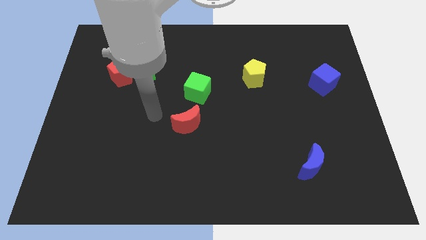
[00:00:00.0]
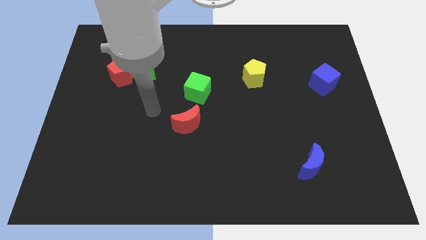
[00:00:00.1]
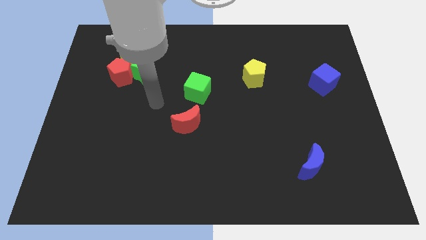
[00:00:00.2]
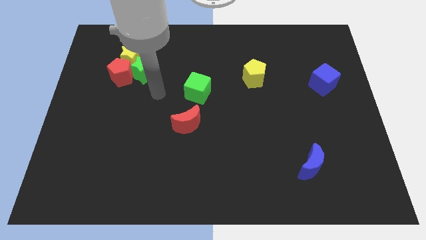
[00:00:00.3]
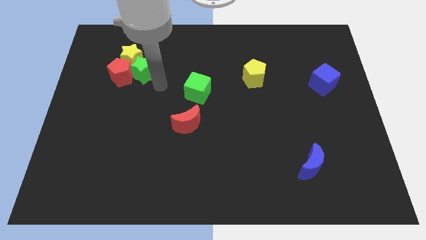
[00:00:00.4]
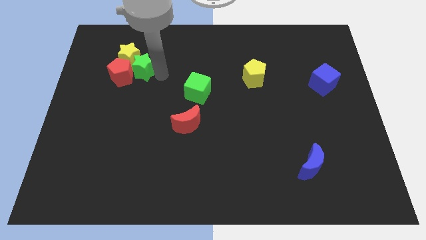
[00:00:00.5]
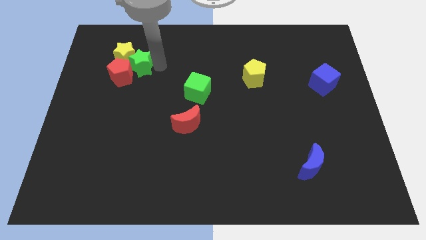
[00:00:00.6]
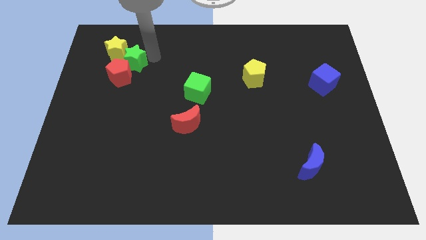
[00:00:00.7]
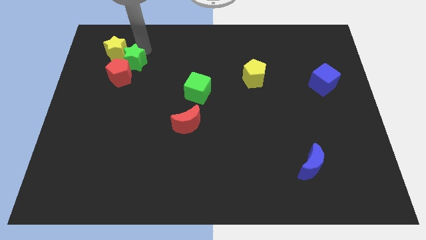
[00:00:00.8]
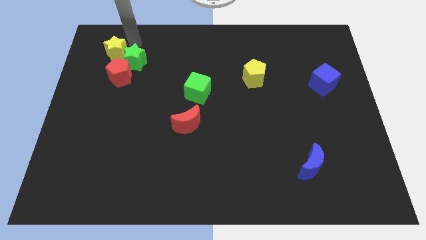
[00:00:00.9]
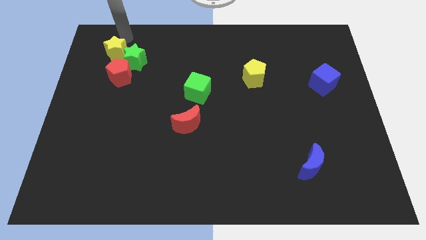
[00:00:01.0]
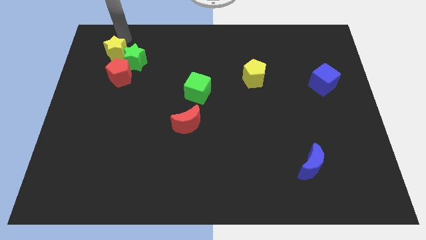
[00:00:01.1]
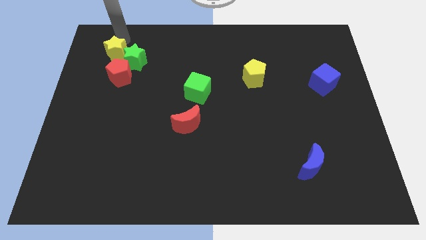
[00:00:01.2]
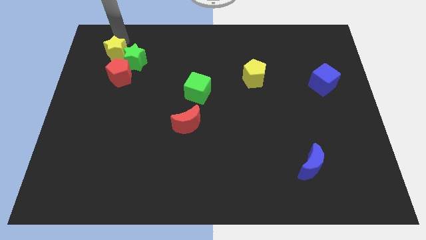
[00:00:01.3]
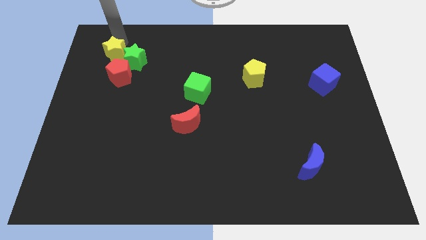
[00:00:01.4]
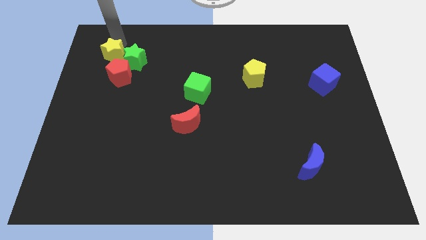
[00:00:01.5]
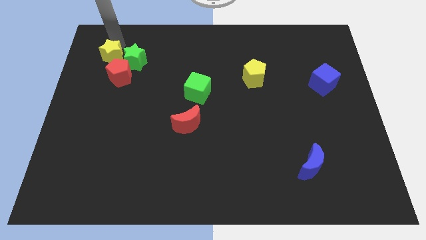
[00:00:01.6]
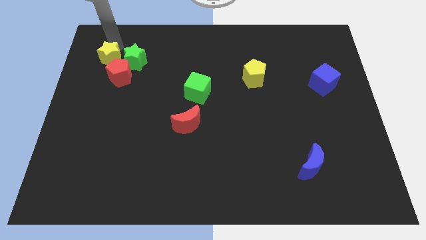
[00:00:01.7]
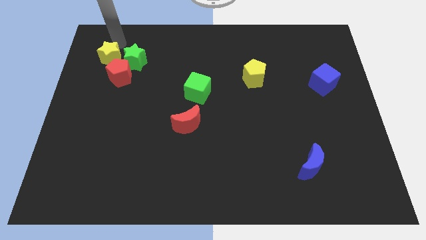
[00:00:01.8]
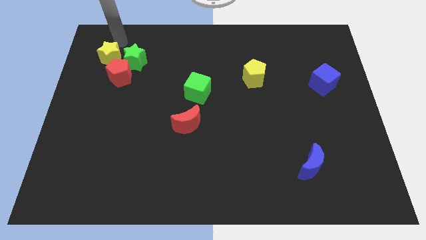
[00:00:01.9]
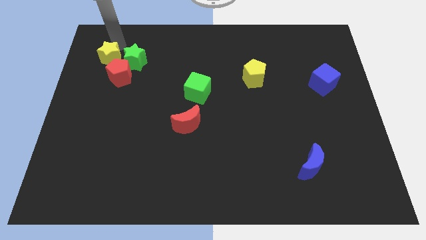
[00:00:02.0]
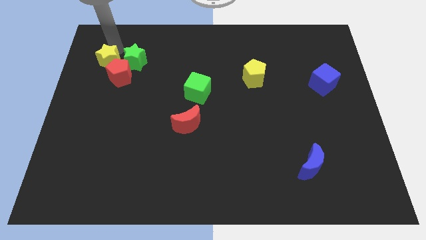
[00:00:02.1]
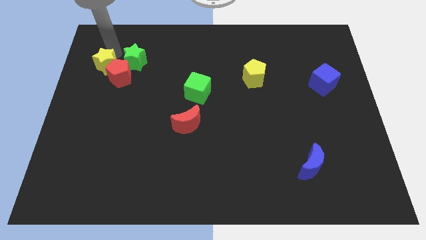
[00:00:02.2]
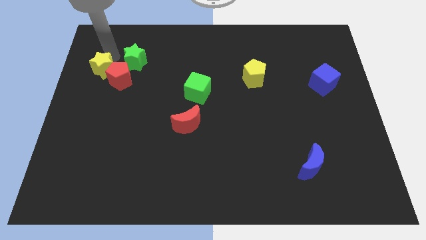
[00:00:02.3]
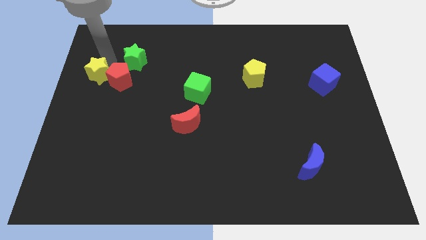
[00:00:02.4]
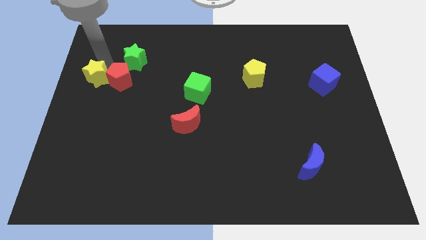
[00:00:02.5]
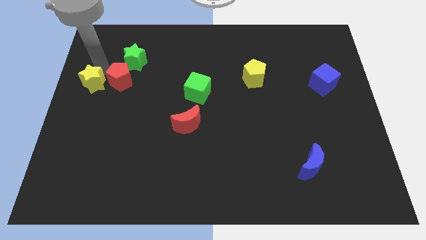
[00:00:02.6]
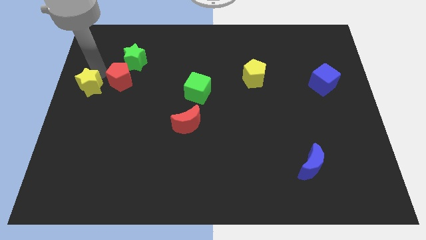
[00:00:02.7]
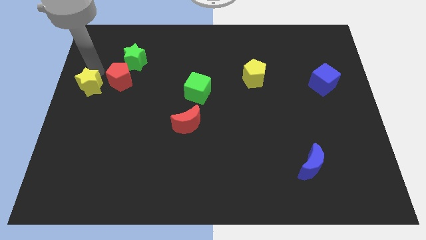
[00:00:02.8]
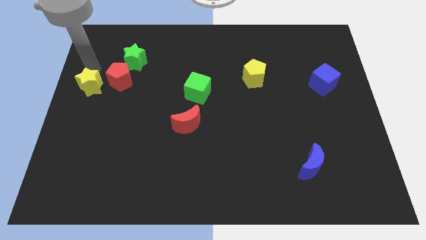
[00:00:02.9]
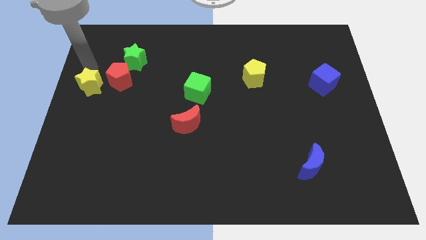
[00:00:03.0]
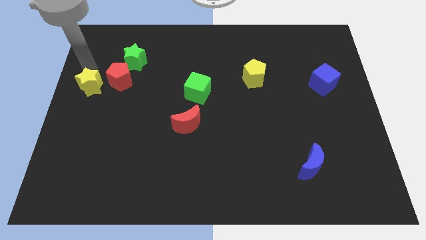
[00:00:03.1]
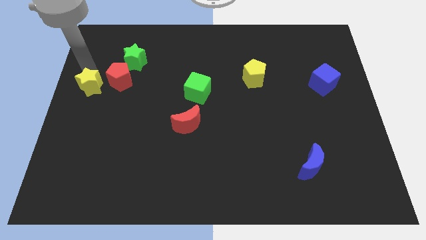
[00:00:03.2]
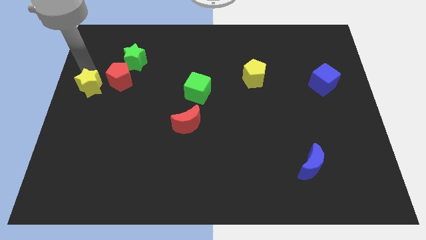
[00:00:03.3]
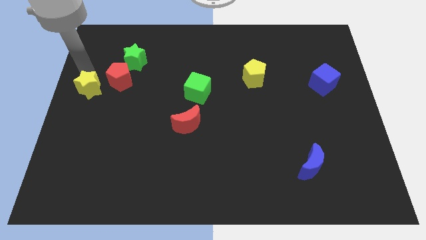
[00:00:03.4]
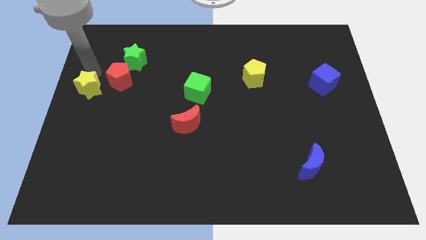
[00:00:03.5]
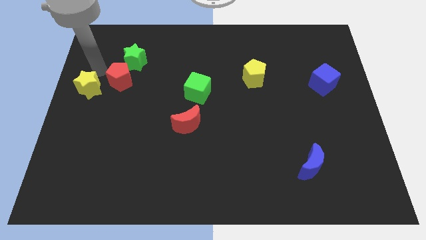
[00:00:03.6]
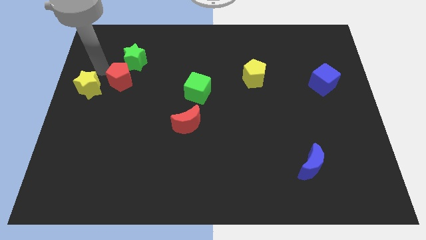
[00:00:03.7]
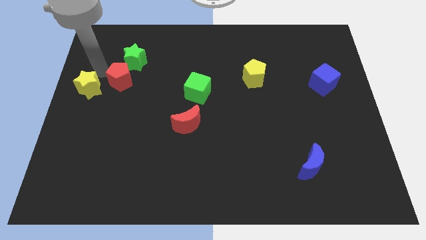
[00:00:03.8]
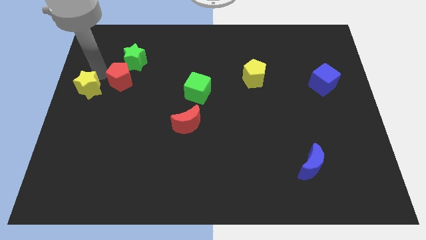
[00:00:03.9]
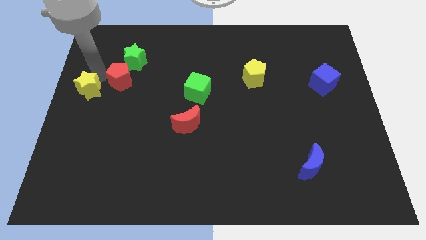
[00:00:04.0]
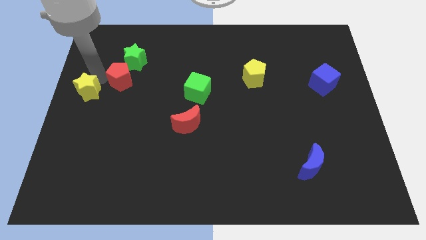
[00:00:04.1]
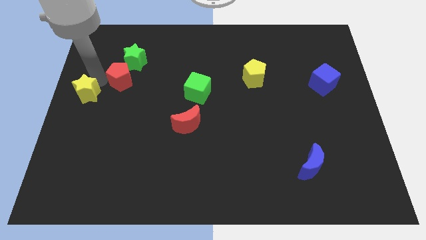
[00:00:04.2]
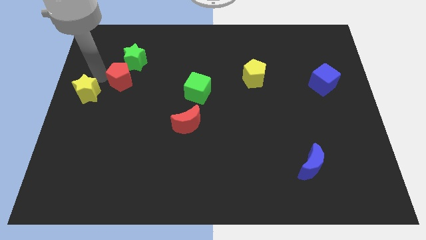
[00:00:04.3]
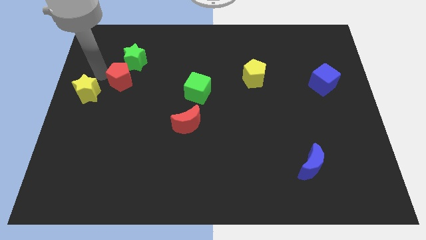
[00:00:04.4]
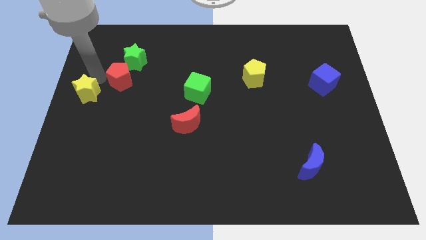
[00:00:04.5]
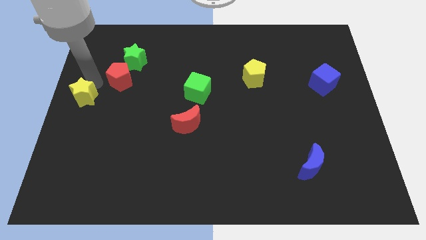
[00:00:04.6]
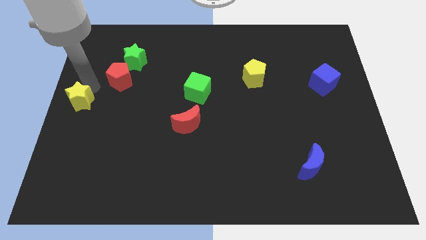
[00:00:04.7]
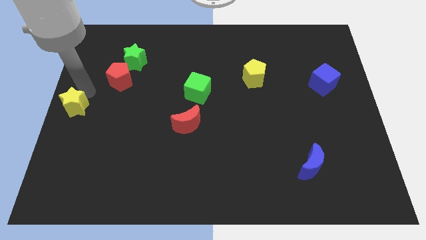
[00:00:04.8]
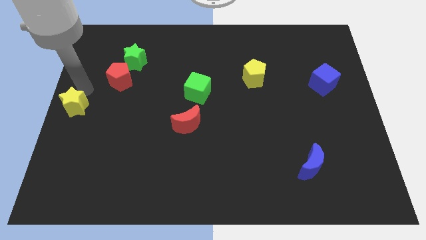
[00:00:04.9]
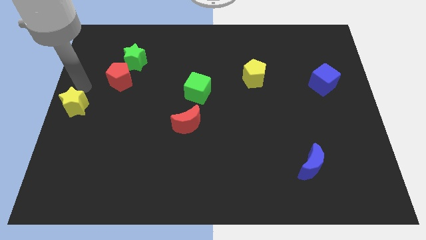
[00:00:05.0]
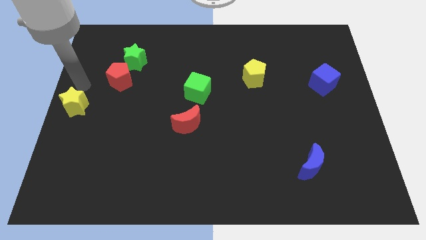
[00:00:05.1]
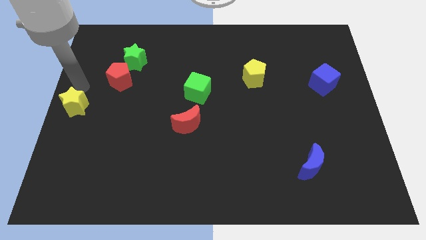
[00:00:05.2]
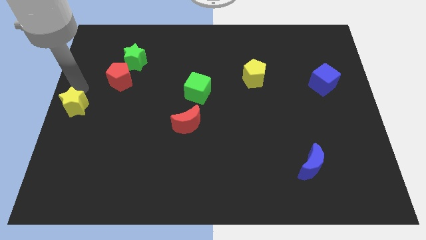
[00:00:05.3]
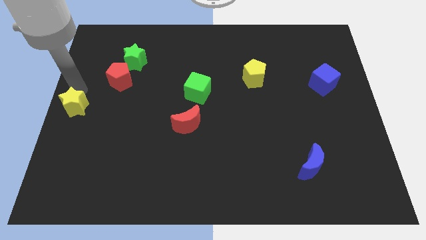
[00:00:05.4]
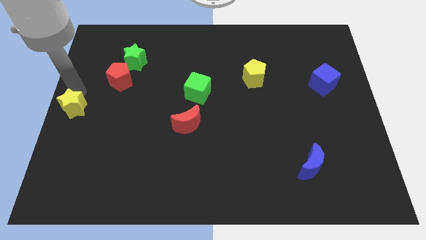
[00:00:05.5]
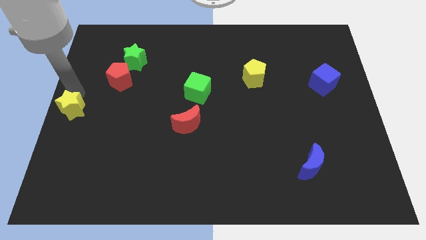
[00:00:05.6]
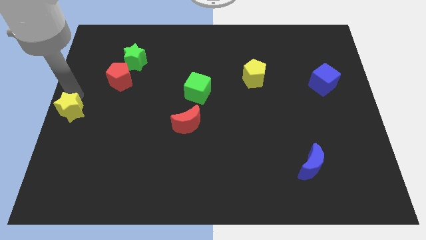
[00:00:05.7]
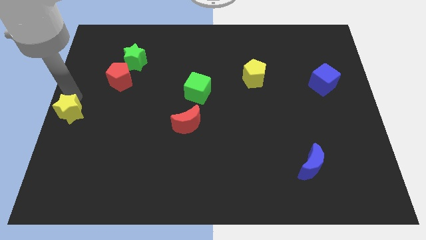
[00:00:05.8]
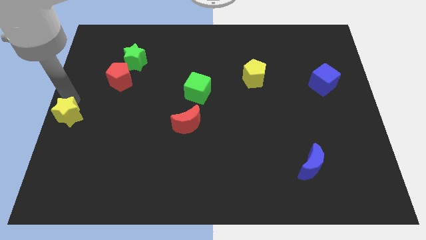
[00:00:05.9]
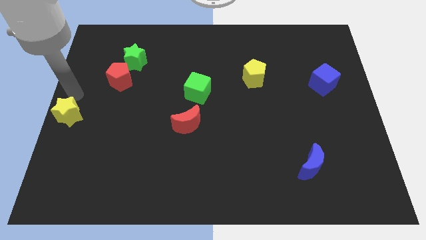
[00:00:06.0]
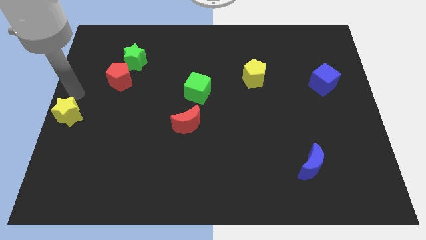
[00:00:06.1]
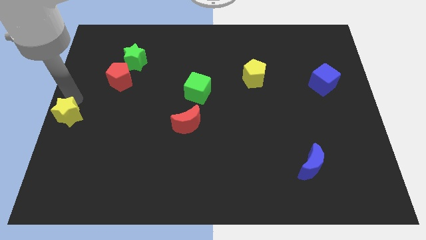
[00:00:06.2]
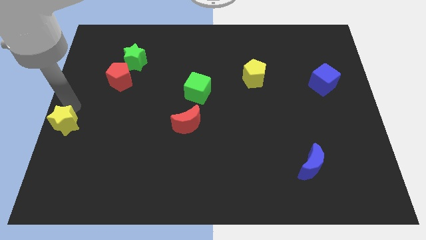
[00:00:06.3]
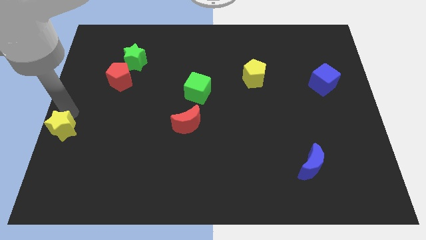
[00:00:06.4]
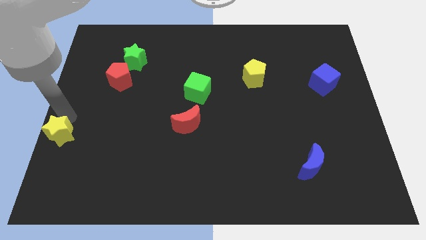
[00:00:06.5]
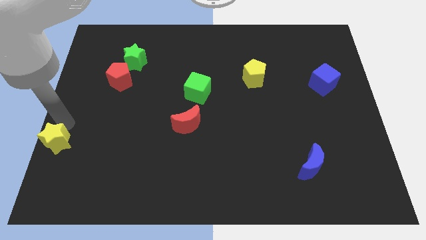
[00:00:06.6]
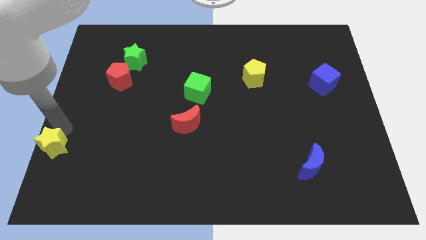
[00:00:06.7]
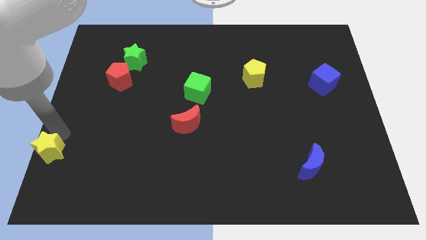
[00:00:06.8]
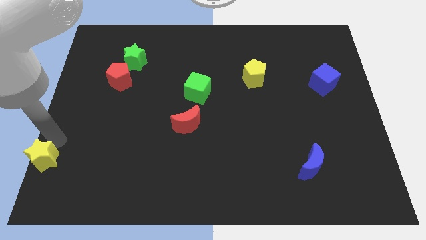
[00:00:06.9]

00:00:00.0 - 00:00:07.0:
move the yellow star to the bottom left corner
